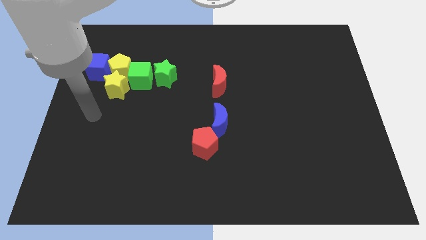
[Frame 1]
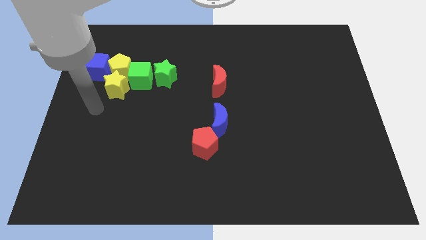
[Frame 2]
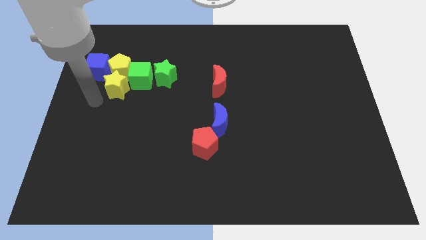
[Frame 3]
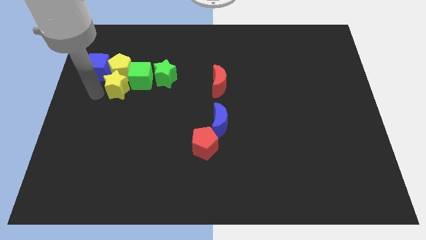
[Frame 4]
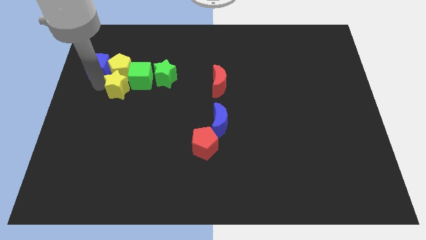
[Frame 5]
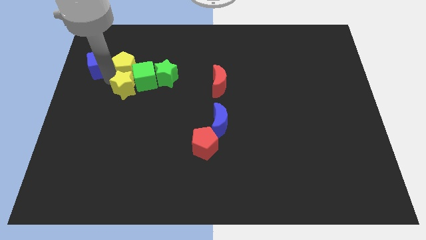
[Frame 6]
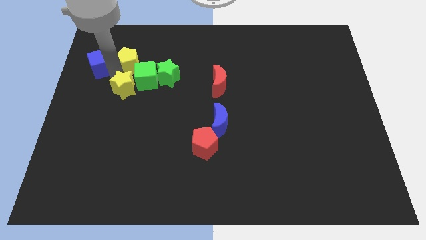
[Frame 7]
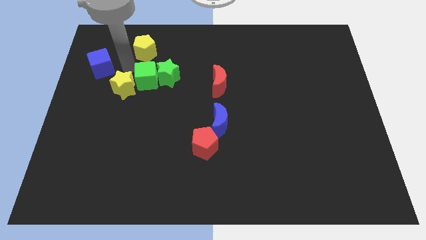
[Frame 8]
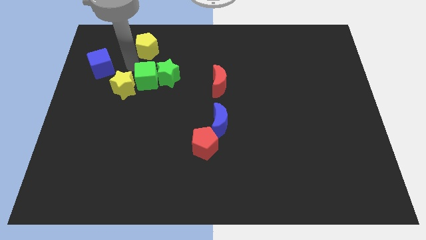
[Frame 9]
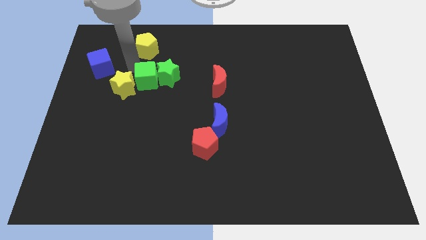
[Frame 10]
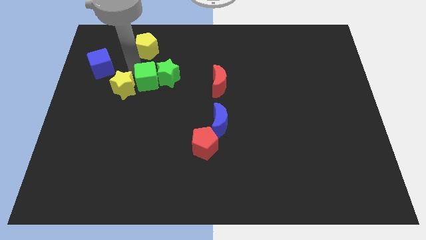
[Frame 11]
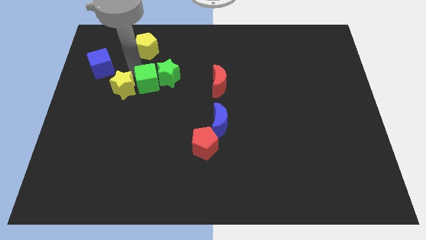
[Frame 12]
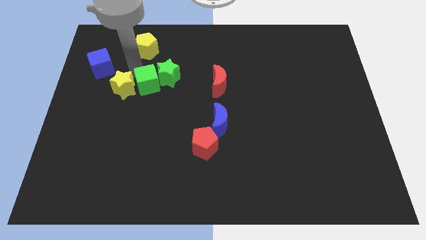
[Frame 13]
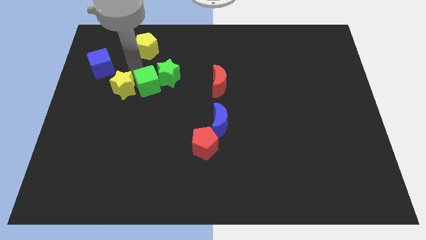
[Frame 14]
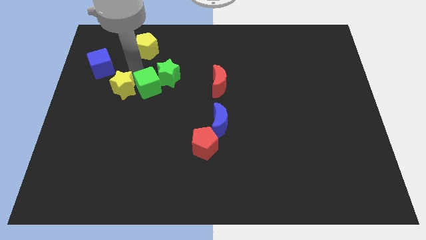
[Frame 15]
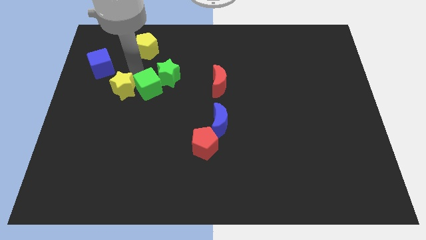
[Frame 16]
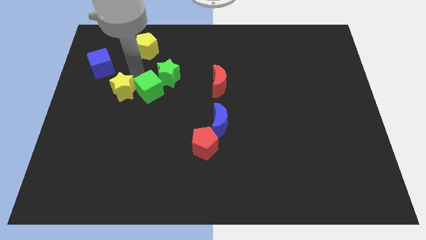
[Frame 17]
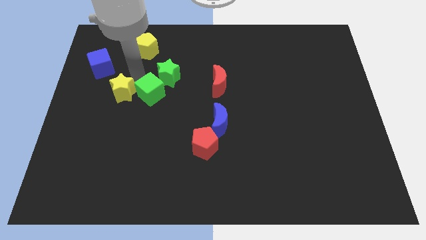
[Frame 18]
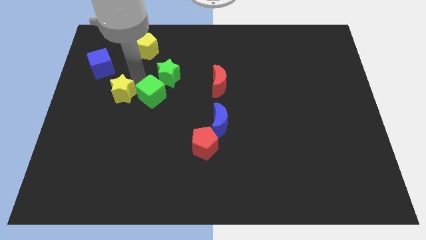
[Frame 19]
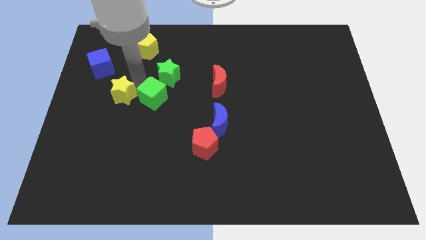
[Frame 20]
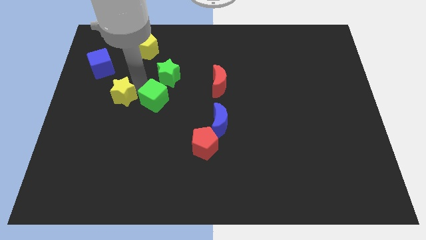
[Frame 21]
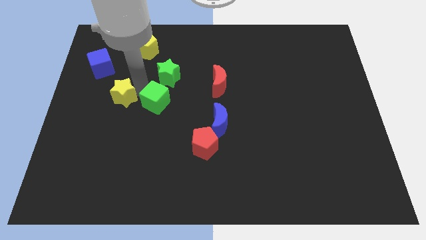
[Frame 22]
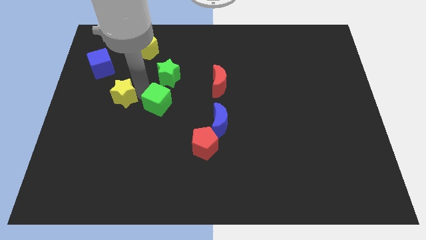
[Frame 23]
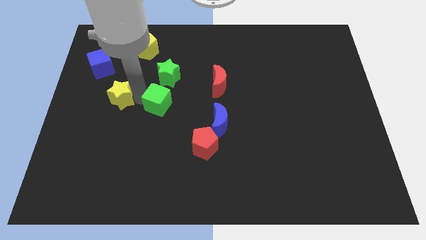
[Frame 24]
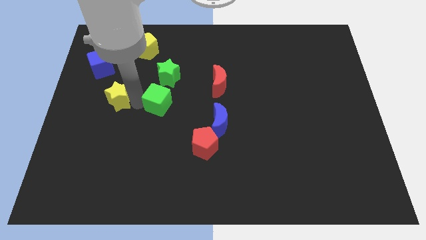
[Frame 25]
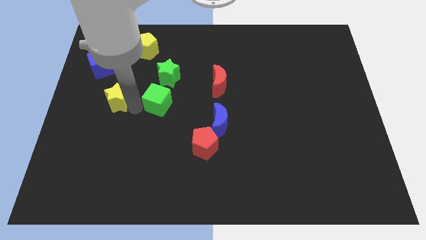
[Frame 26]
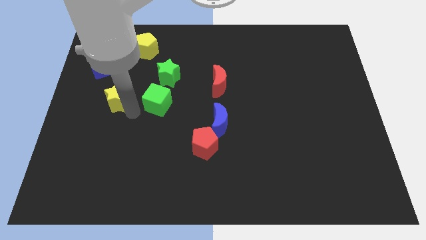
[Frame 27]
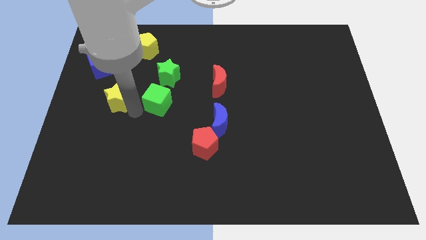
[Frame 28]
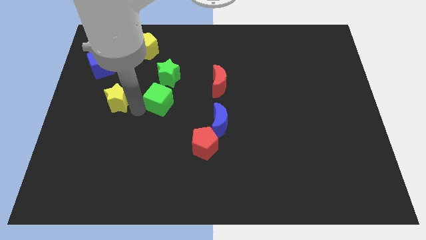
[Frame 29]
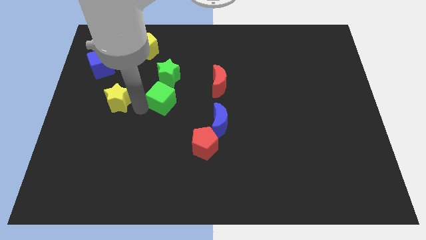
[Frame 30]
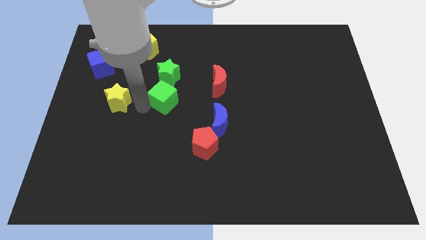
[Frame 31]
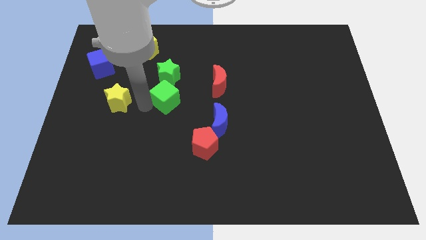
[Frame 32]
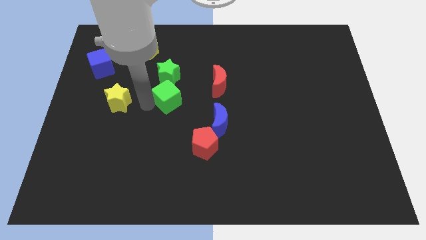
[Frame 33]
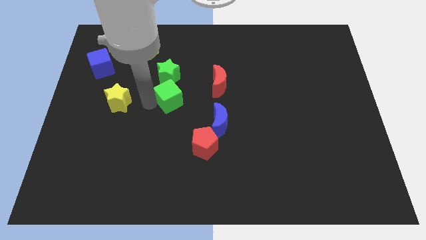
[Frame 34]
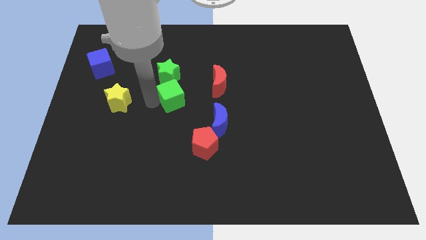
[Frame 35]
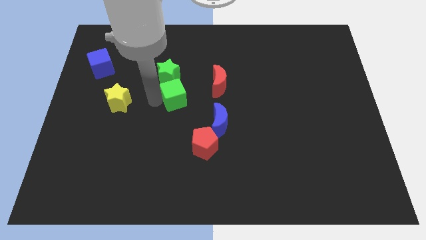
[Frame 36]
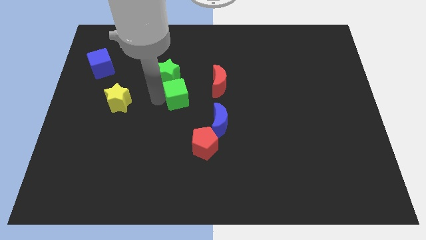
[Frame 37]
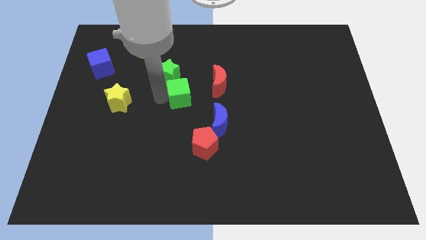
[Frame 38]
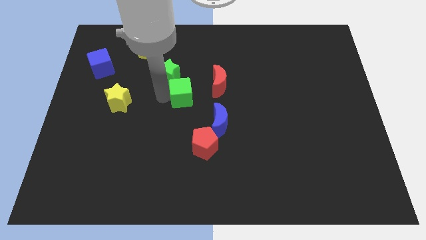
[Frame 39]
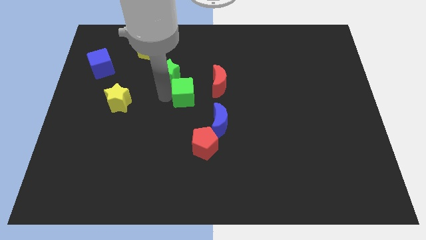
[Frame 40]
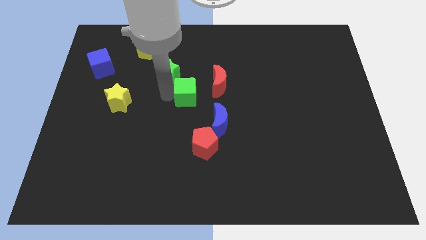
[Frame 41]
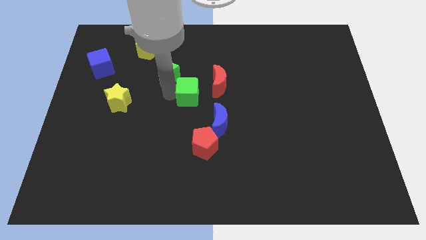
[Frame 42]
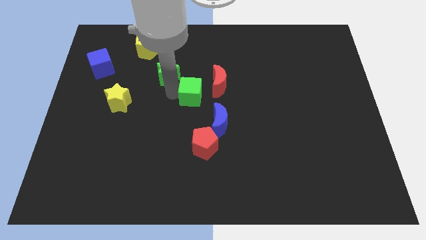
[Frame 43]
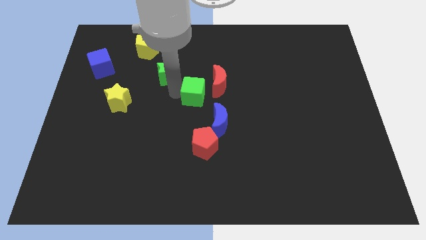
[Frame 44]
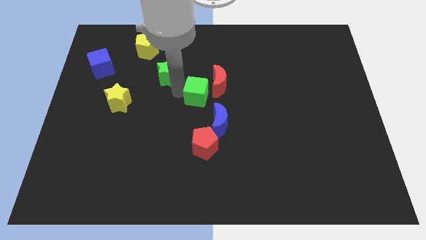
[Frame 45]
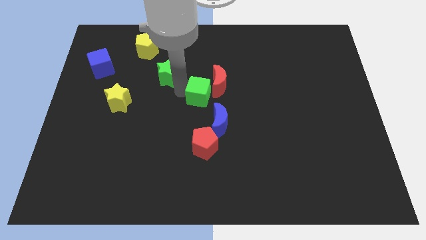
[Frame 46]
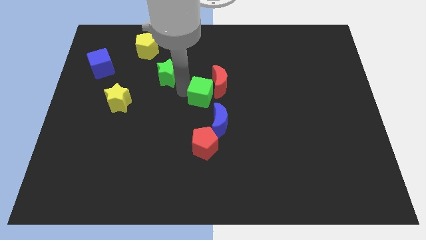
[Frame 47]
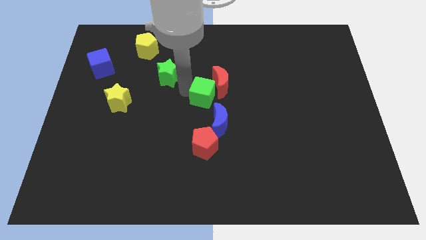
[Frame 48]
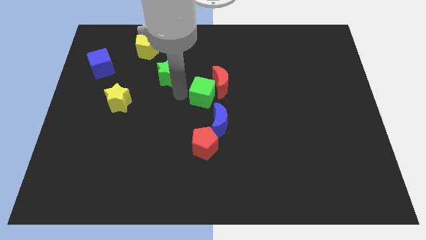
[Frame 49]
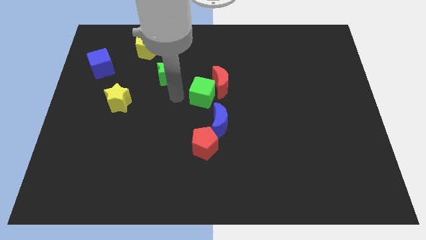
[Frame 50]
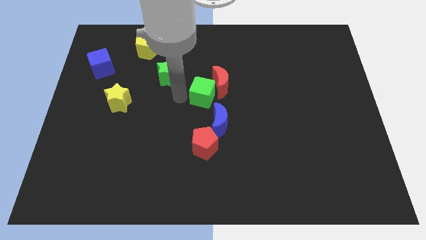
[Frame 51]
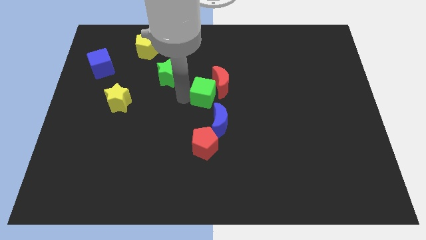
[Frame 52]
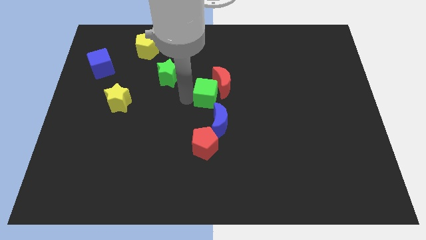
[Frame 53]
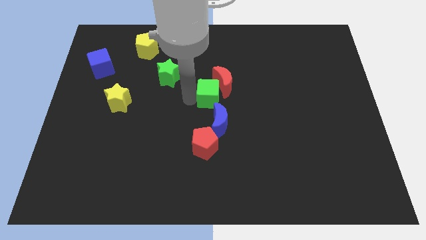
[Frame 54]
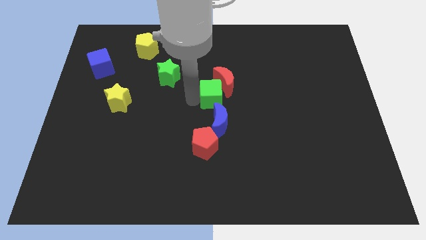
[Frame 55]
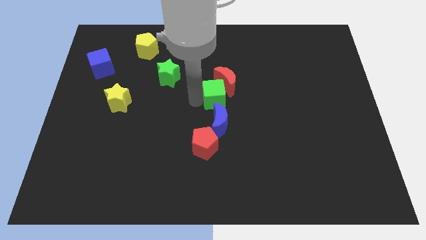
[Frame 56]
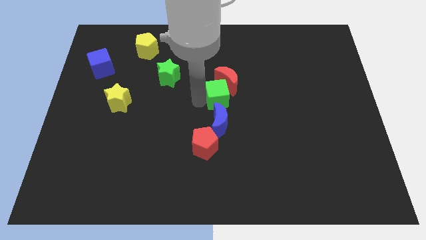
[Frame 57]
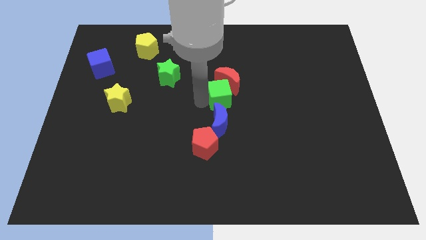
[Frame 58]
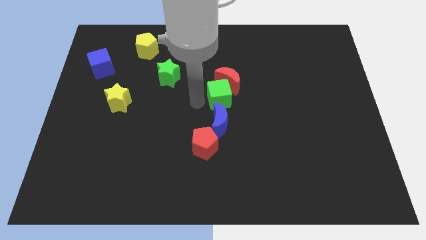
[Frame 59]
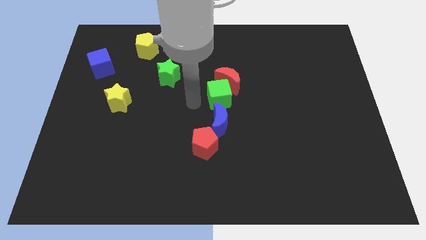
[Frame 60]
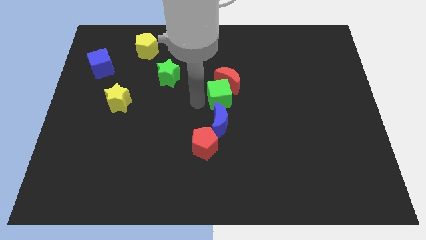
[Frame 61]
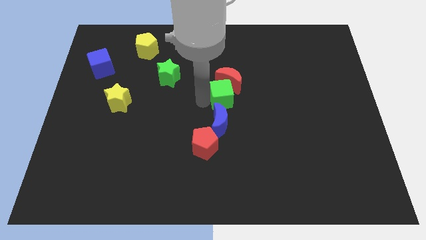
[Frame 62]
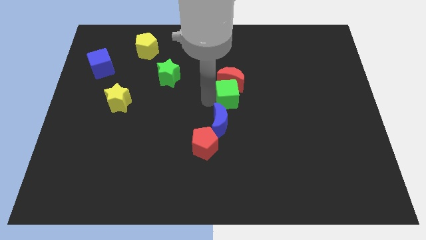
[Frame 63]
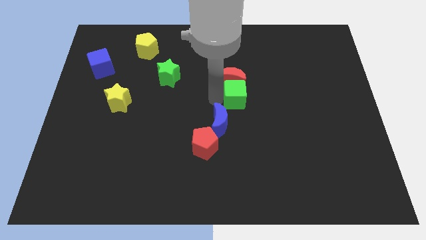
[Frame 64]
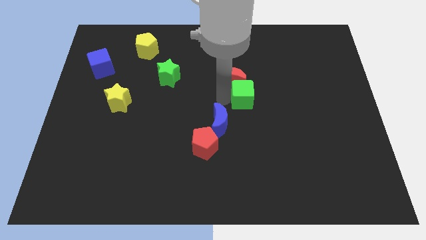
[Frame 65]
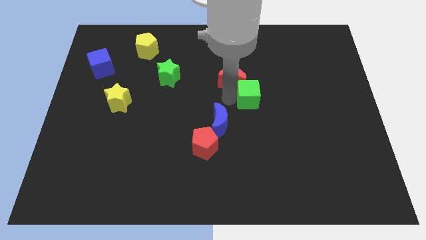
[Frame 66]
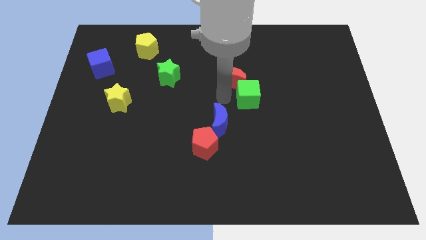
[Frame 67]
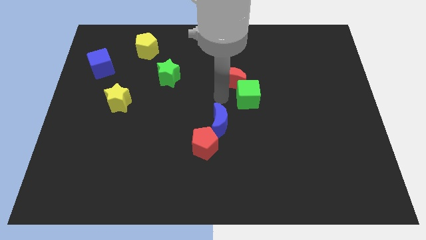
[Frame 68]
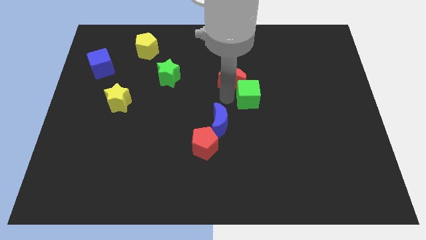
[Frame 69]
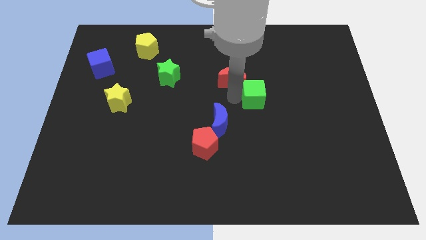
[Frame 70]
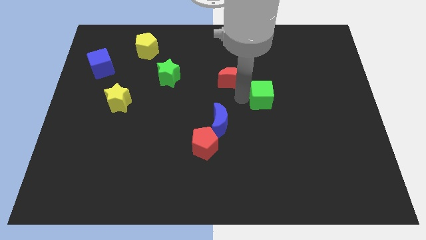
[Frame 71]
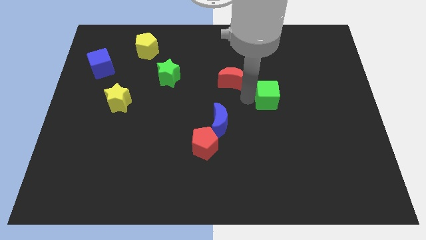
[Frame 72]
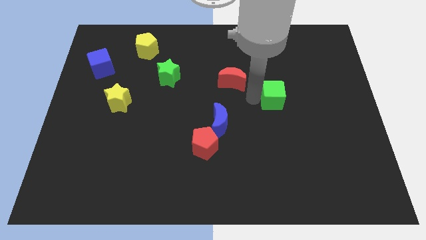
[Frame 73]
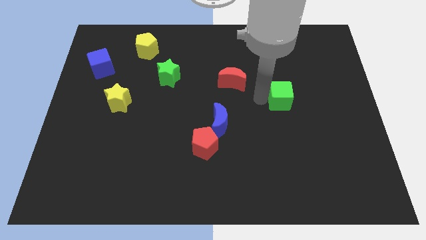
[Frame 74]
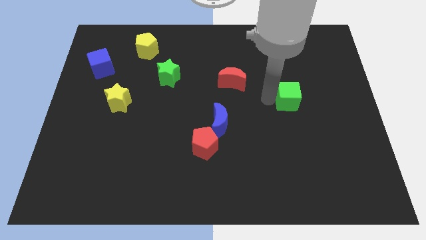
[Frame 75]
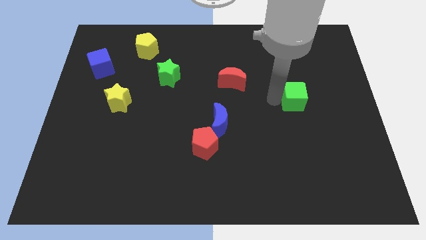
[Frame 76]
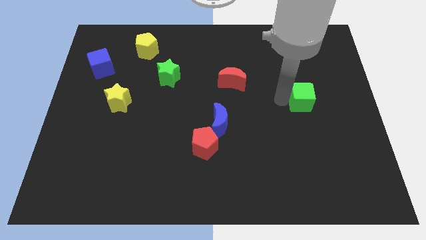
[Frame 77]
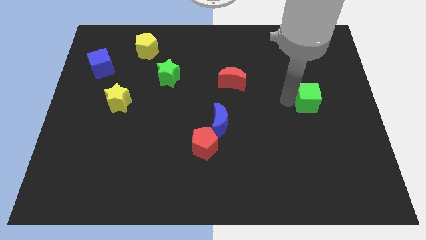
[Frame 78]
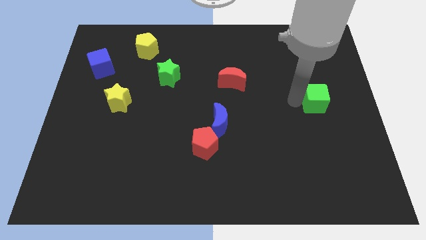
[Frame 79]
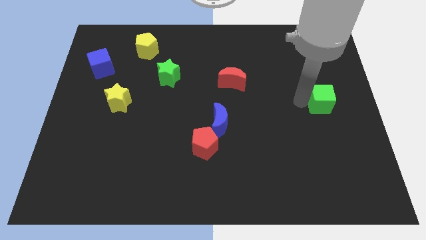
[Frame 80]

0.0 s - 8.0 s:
put the green cube to the right side
